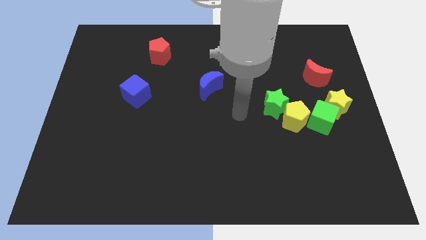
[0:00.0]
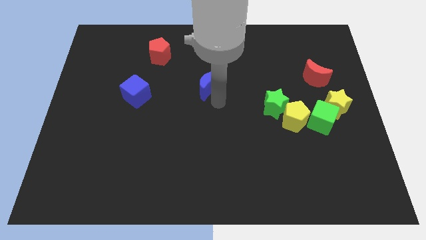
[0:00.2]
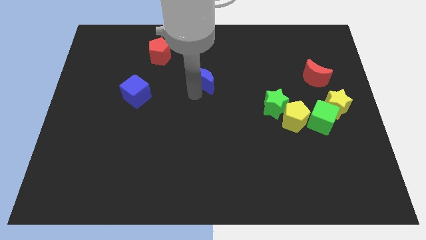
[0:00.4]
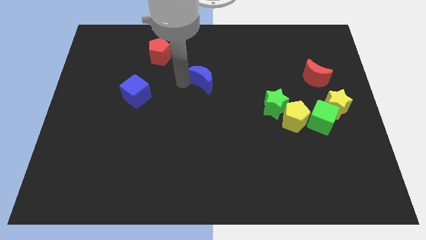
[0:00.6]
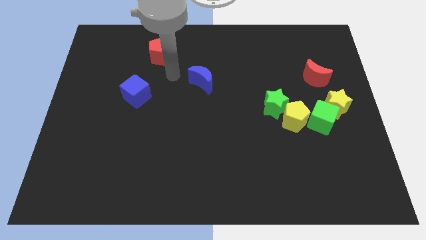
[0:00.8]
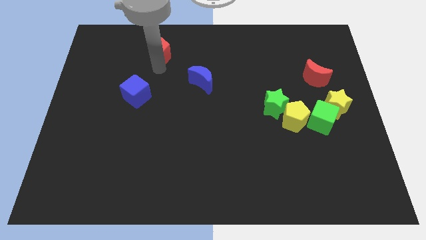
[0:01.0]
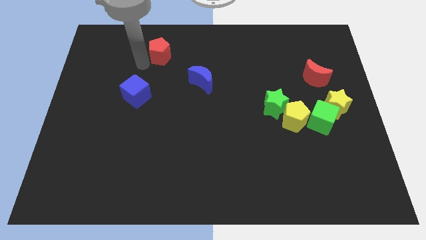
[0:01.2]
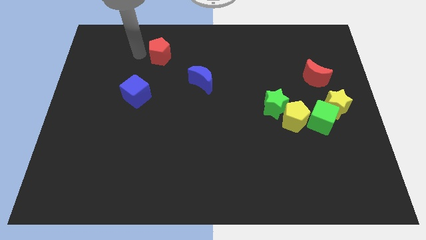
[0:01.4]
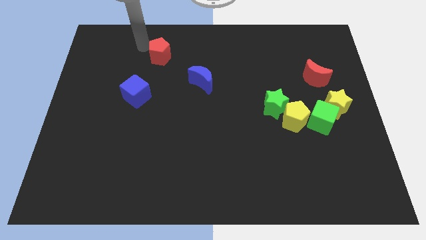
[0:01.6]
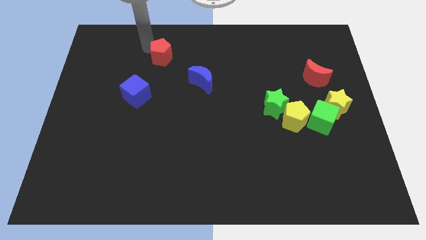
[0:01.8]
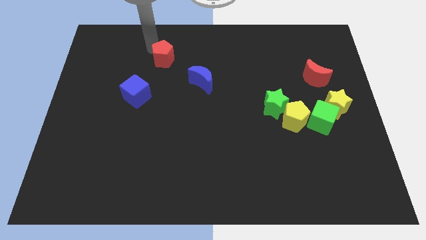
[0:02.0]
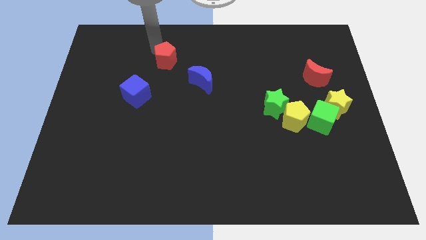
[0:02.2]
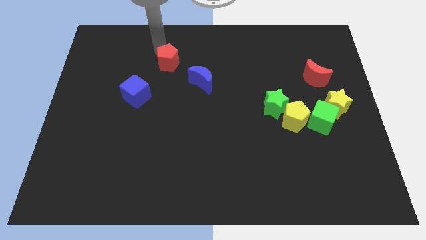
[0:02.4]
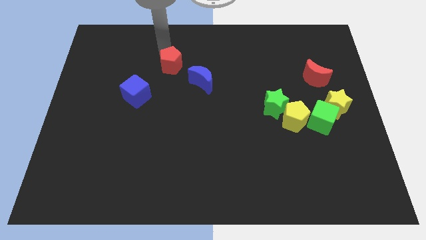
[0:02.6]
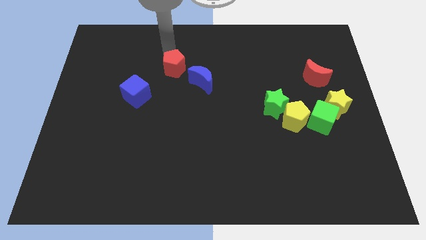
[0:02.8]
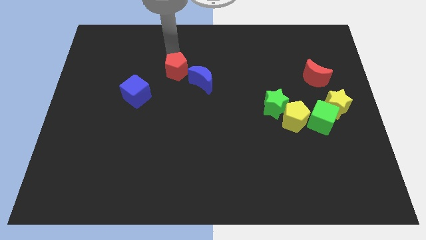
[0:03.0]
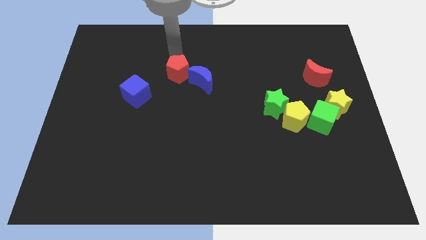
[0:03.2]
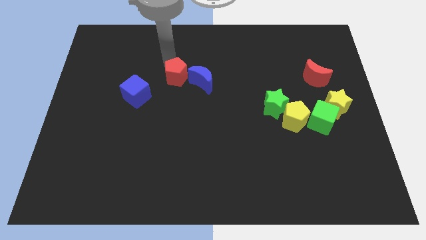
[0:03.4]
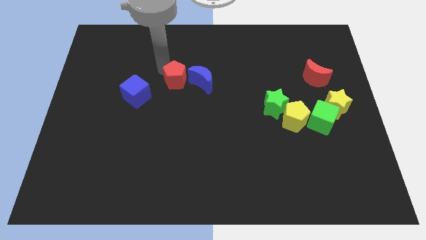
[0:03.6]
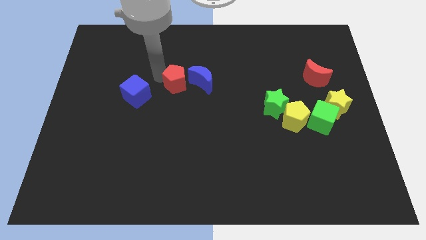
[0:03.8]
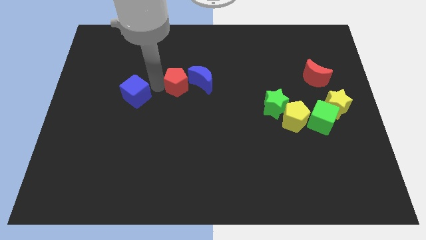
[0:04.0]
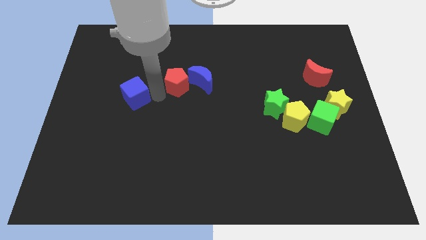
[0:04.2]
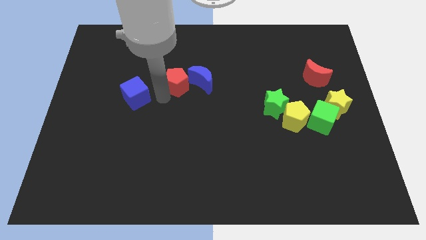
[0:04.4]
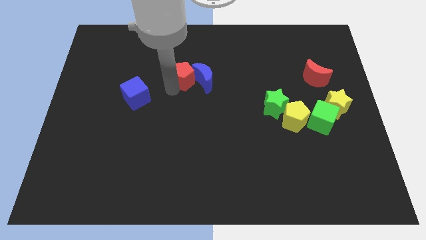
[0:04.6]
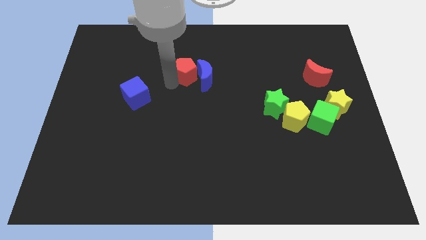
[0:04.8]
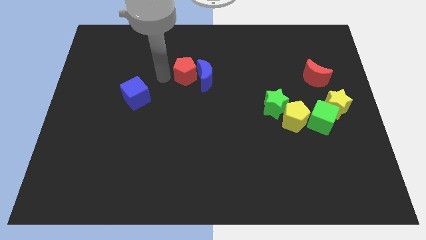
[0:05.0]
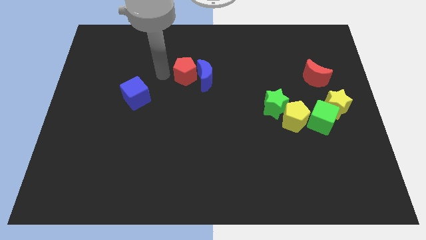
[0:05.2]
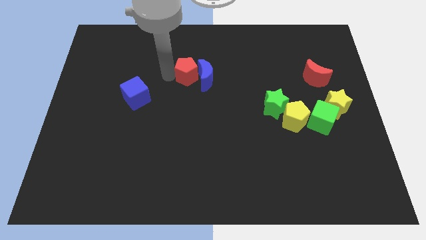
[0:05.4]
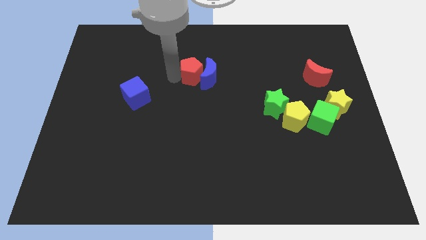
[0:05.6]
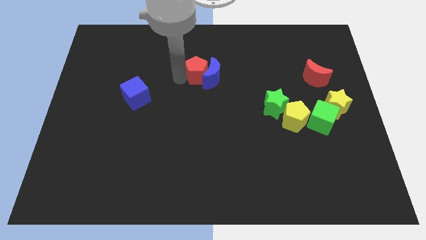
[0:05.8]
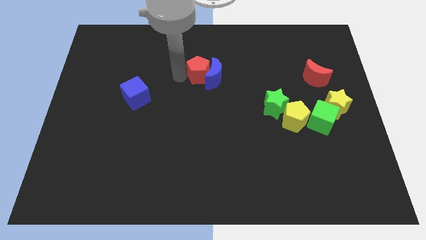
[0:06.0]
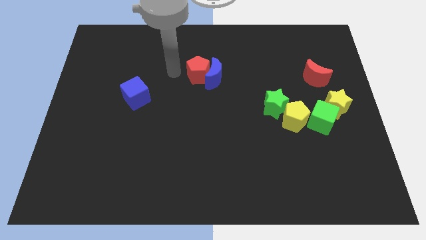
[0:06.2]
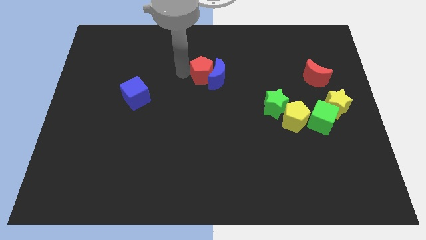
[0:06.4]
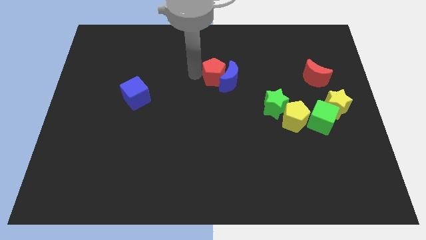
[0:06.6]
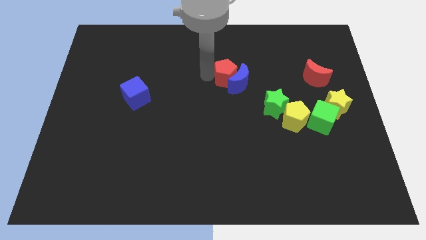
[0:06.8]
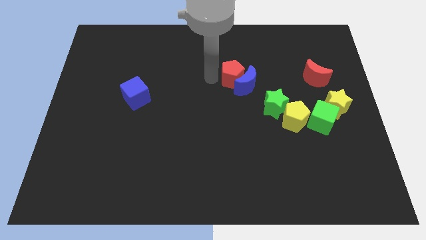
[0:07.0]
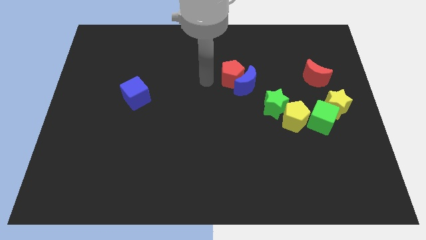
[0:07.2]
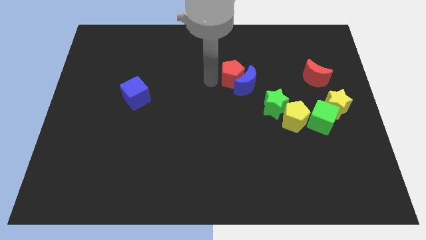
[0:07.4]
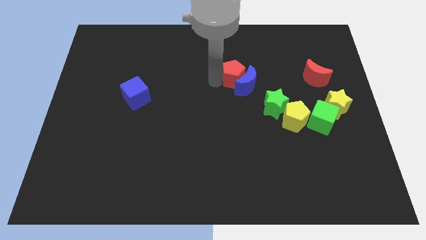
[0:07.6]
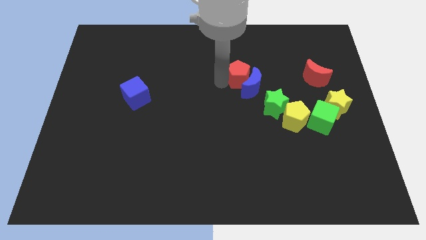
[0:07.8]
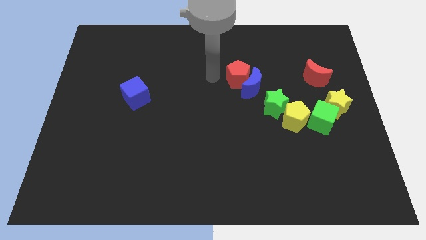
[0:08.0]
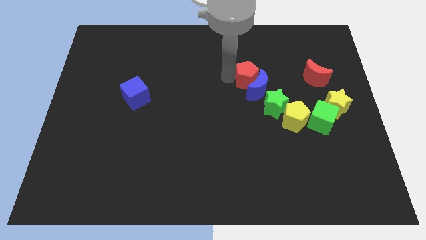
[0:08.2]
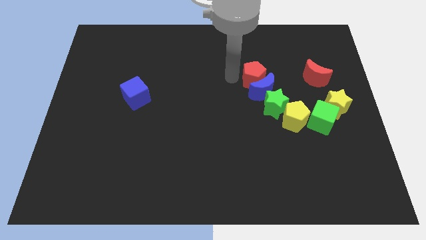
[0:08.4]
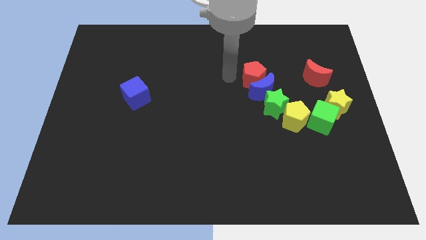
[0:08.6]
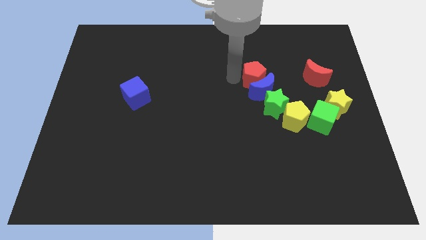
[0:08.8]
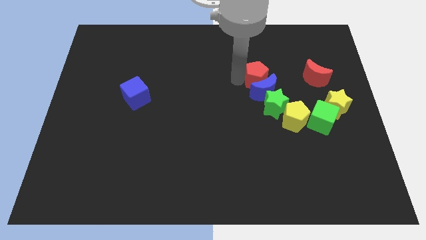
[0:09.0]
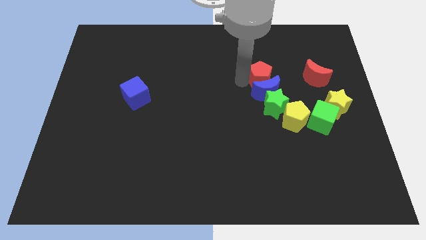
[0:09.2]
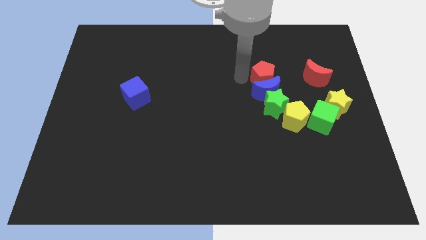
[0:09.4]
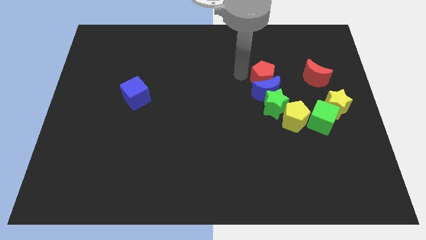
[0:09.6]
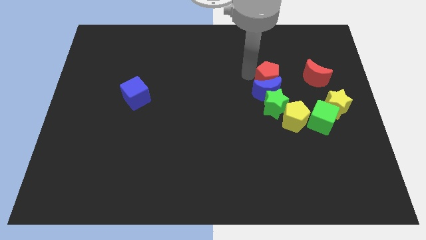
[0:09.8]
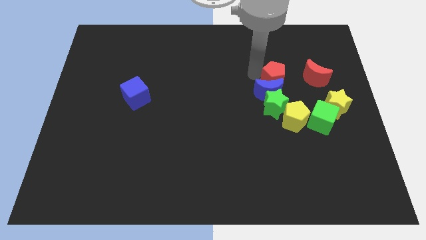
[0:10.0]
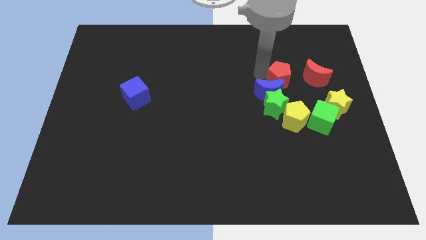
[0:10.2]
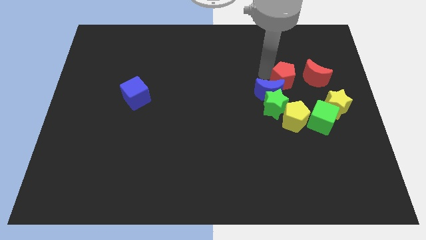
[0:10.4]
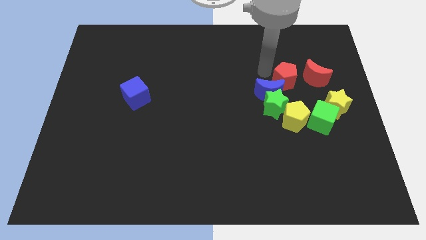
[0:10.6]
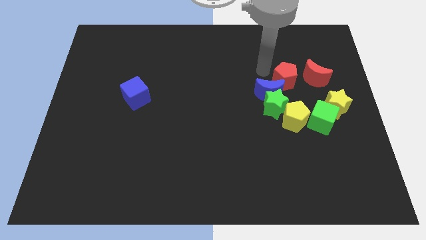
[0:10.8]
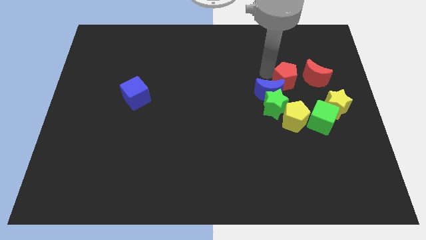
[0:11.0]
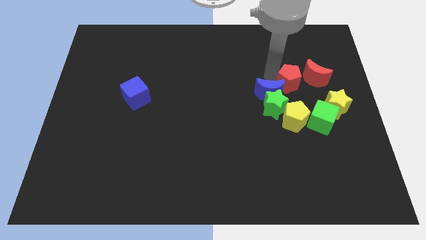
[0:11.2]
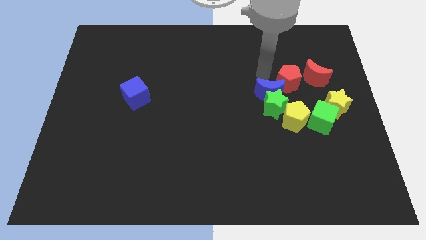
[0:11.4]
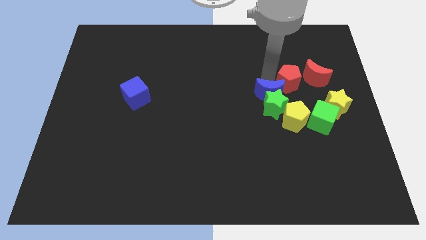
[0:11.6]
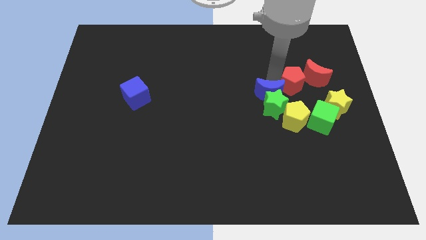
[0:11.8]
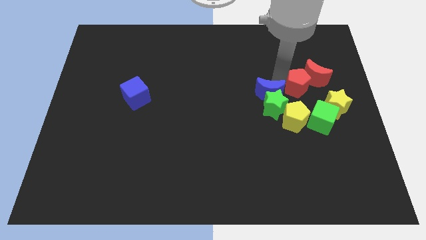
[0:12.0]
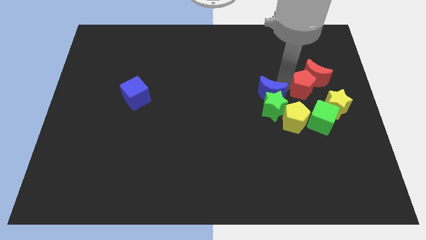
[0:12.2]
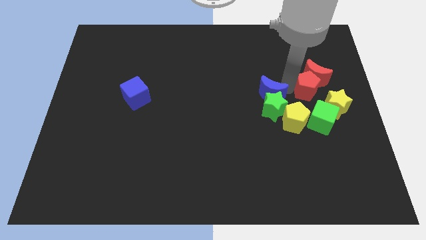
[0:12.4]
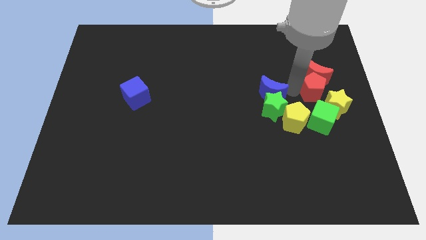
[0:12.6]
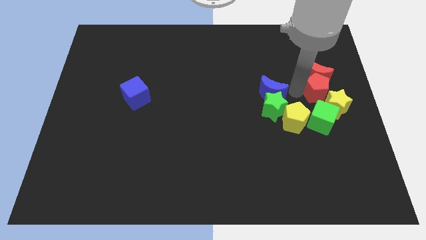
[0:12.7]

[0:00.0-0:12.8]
slide the red pentagon to the right side

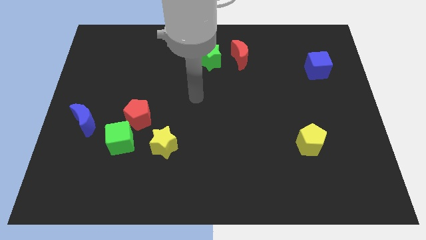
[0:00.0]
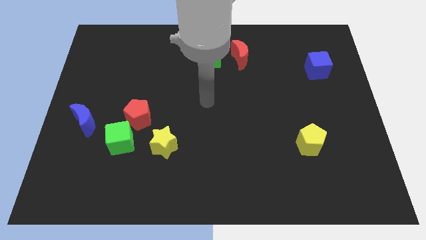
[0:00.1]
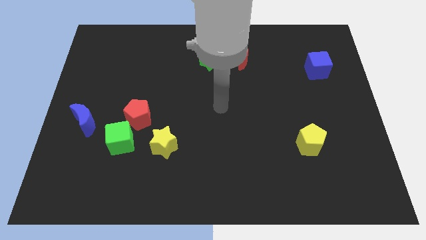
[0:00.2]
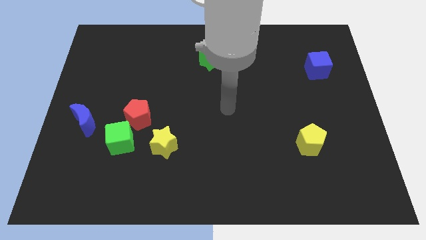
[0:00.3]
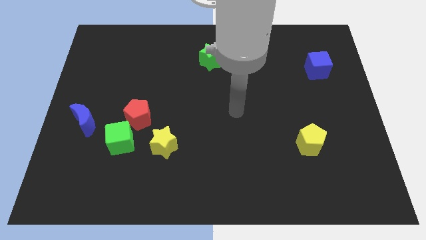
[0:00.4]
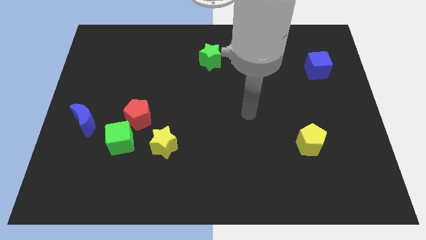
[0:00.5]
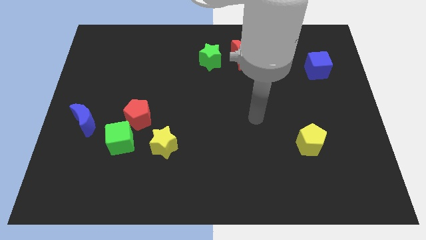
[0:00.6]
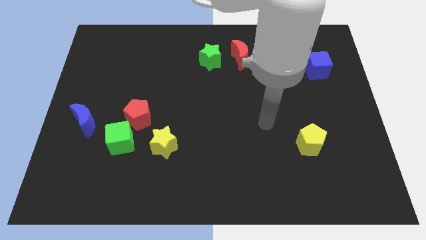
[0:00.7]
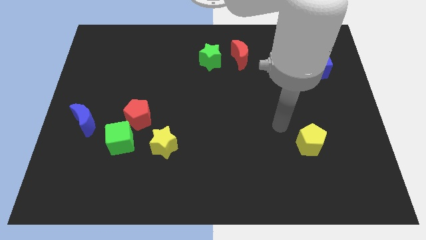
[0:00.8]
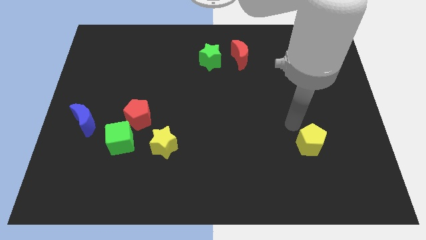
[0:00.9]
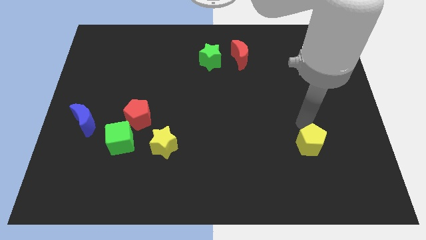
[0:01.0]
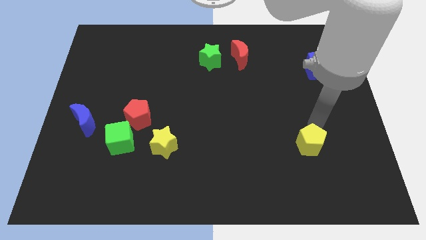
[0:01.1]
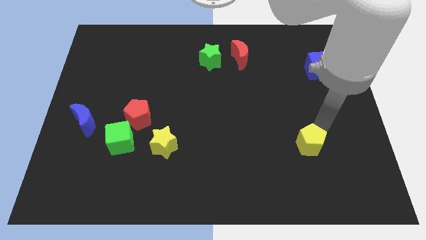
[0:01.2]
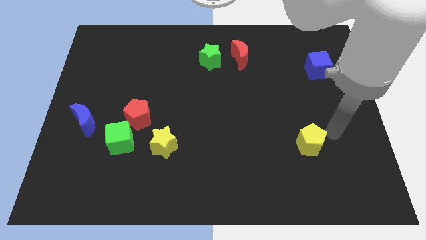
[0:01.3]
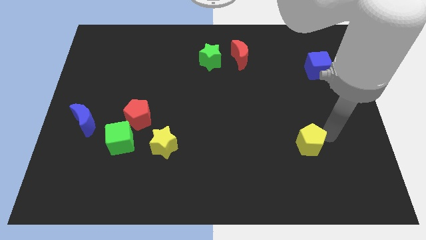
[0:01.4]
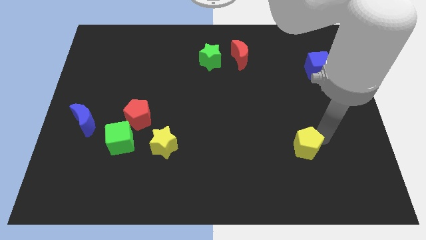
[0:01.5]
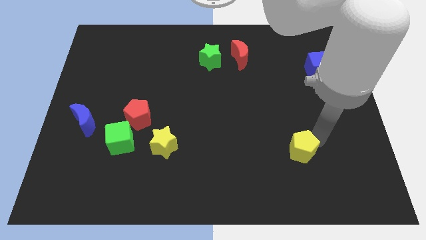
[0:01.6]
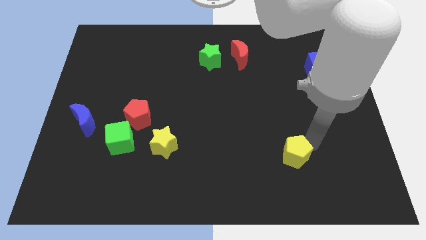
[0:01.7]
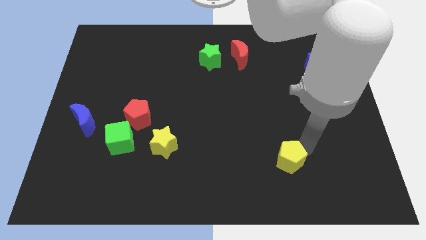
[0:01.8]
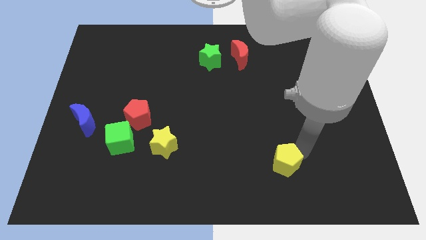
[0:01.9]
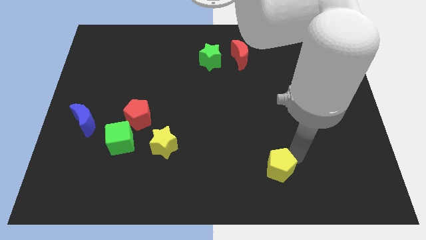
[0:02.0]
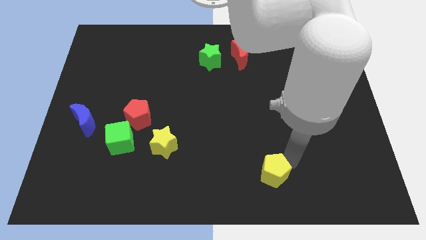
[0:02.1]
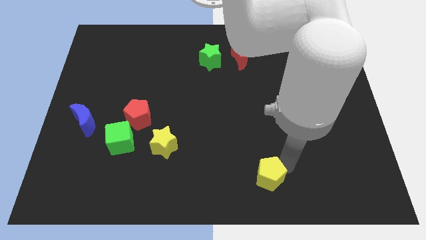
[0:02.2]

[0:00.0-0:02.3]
move the yellow pentagon to the bottom
